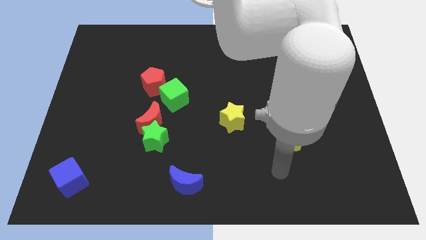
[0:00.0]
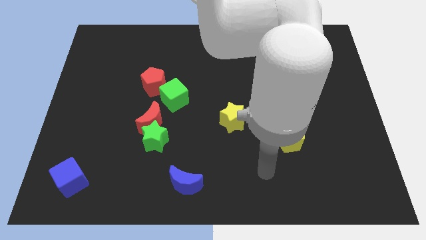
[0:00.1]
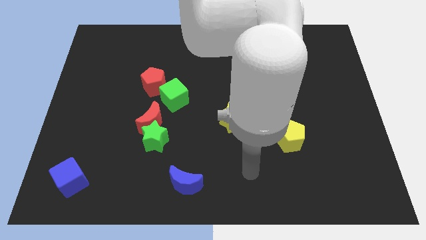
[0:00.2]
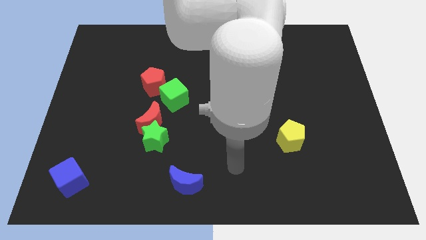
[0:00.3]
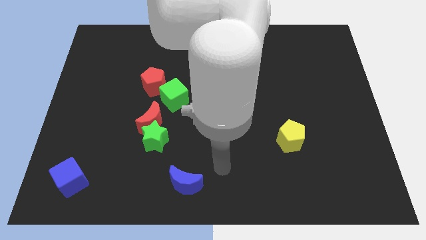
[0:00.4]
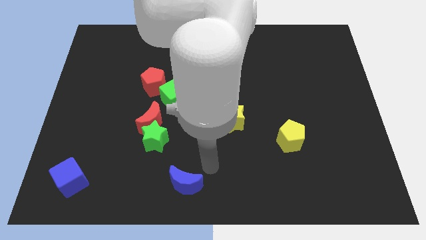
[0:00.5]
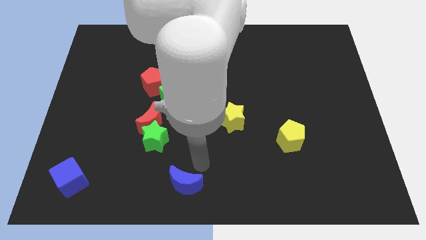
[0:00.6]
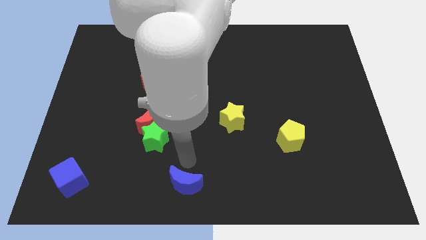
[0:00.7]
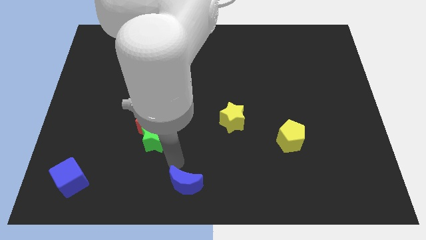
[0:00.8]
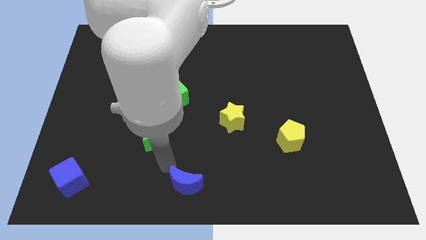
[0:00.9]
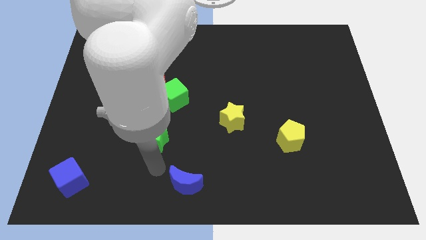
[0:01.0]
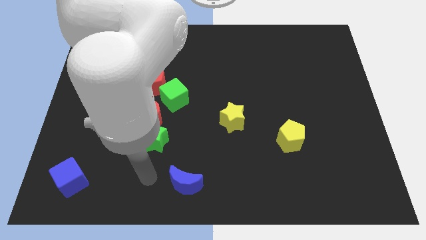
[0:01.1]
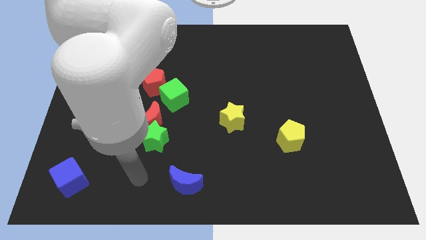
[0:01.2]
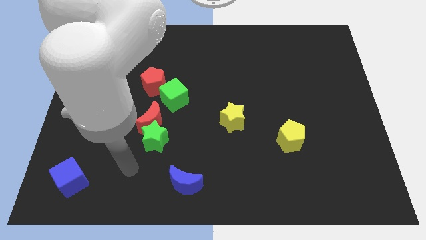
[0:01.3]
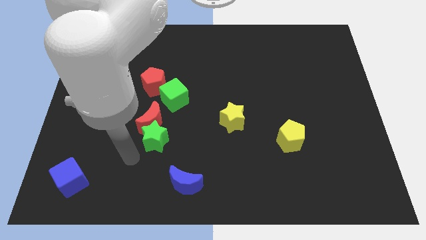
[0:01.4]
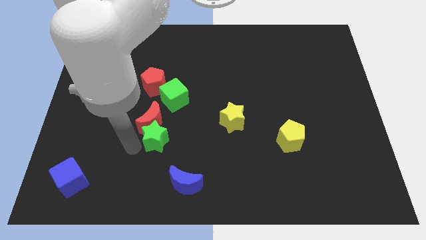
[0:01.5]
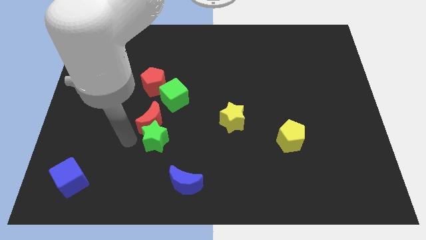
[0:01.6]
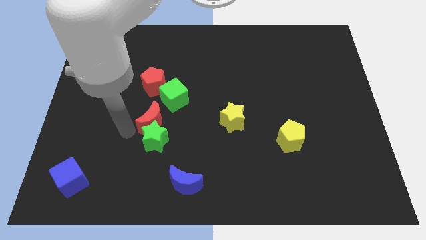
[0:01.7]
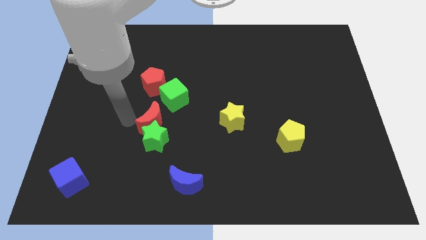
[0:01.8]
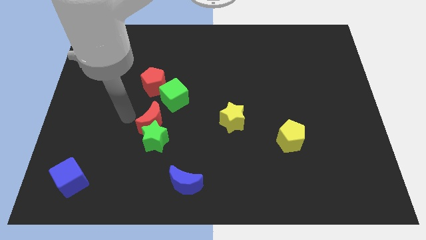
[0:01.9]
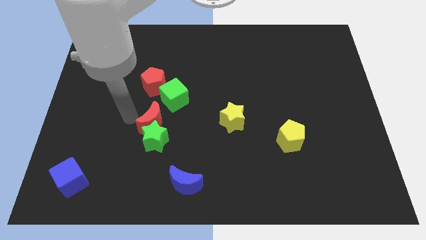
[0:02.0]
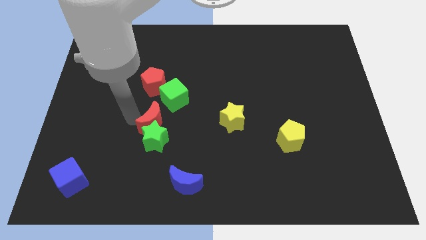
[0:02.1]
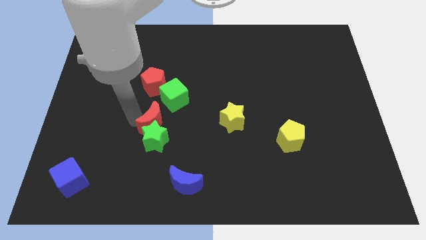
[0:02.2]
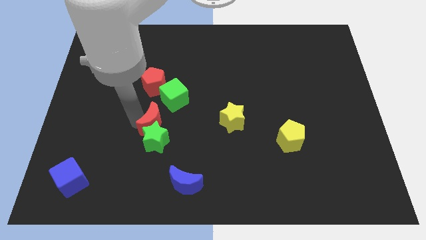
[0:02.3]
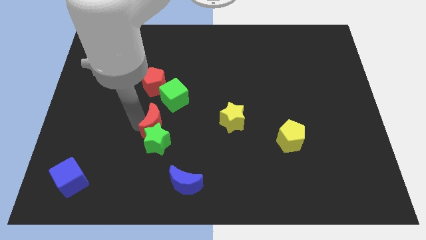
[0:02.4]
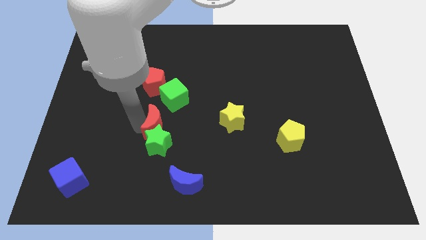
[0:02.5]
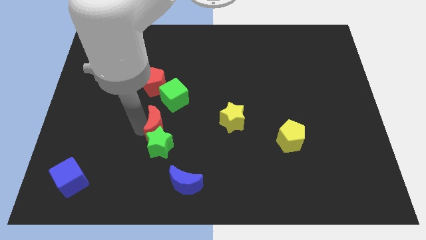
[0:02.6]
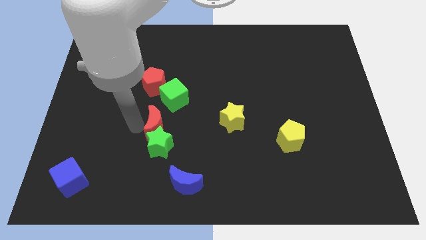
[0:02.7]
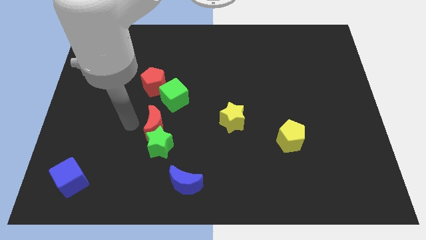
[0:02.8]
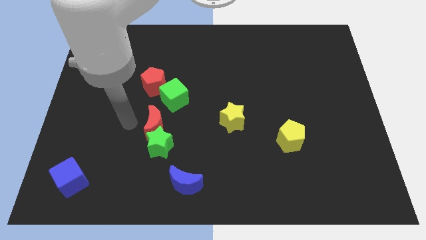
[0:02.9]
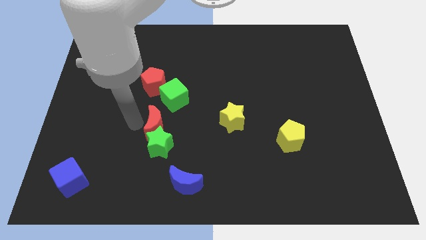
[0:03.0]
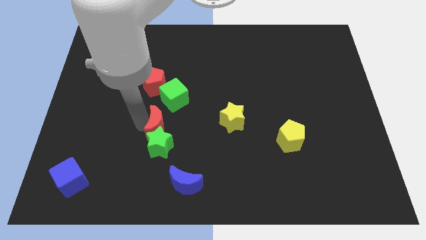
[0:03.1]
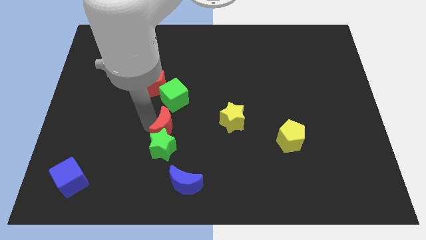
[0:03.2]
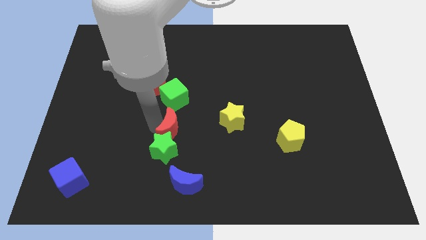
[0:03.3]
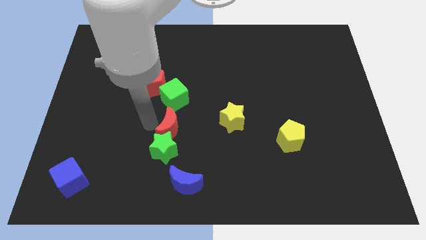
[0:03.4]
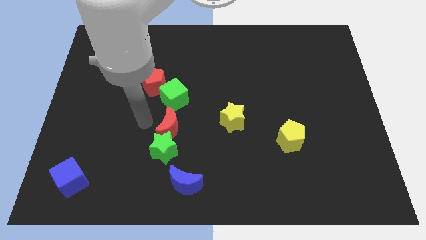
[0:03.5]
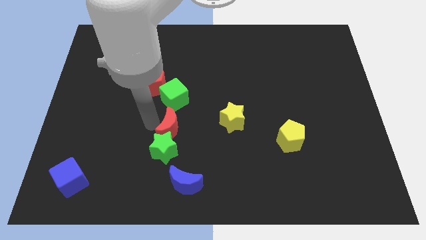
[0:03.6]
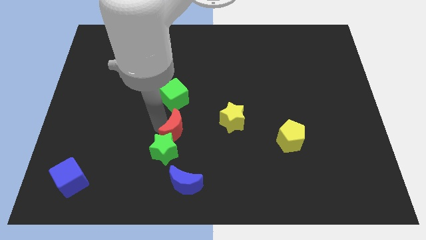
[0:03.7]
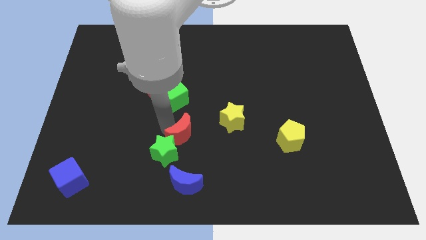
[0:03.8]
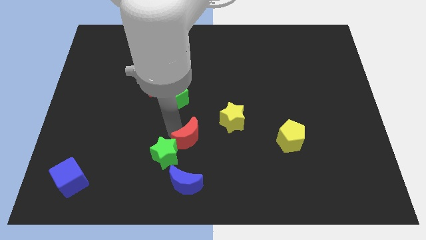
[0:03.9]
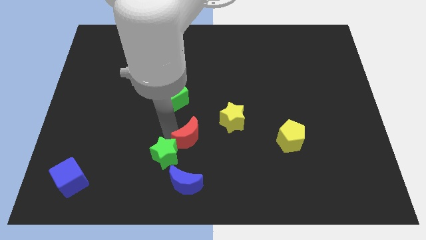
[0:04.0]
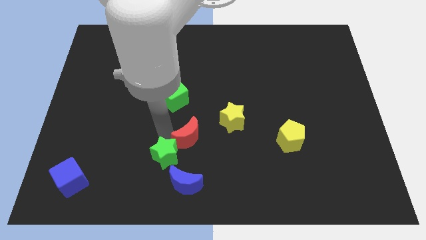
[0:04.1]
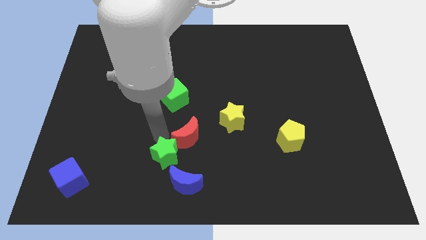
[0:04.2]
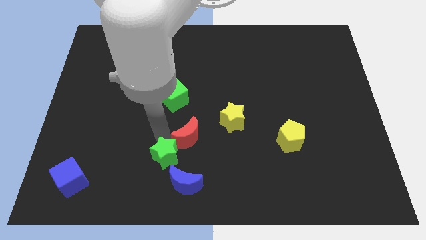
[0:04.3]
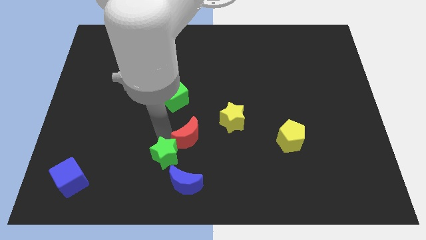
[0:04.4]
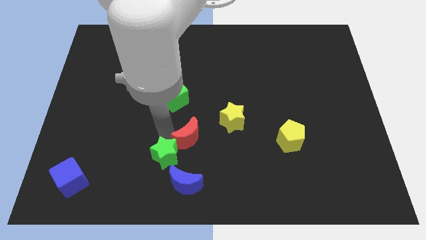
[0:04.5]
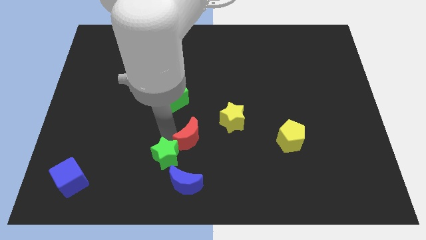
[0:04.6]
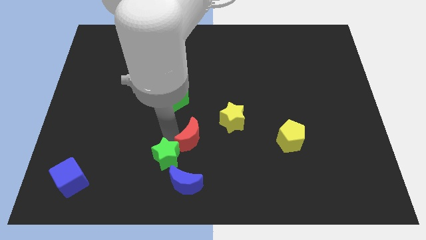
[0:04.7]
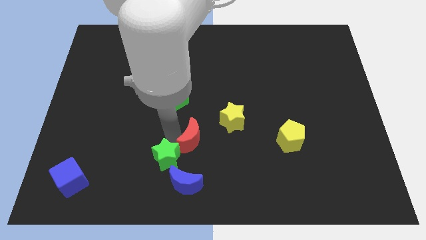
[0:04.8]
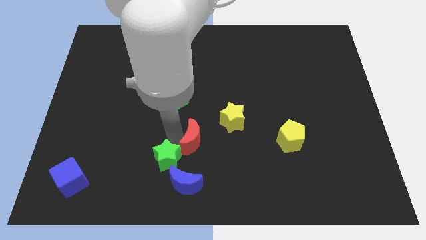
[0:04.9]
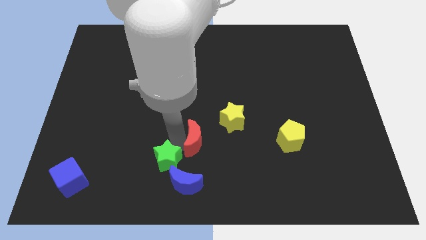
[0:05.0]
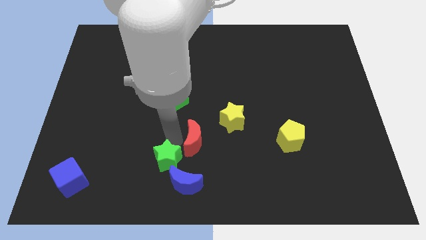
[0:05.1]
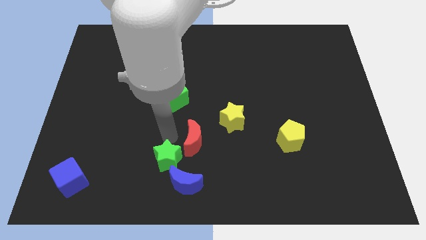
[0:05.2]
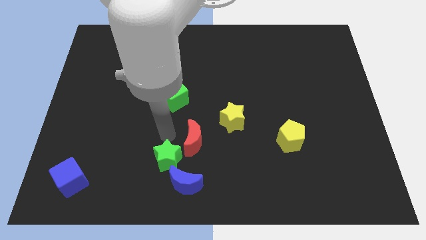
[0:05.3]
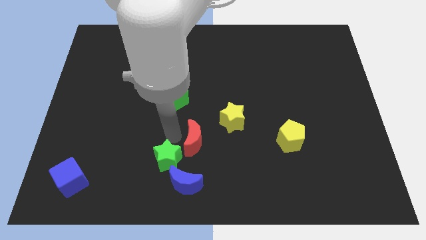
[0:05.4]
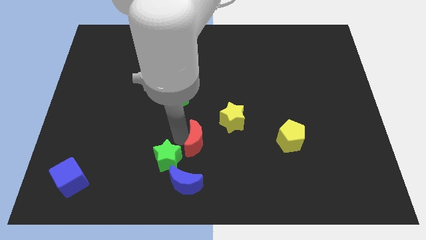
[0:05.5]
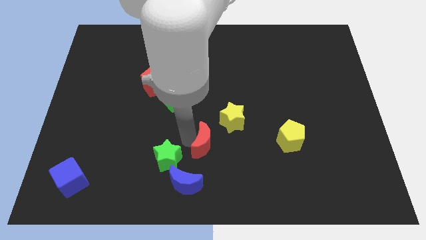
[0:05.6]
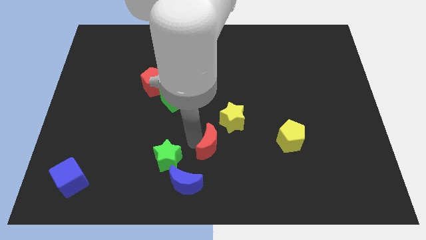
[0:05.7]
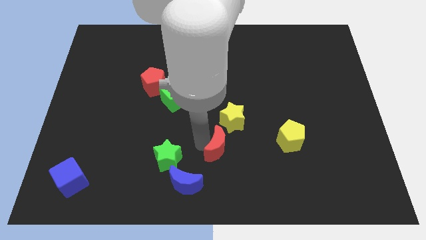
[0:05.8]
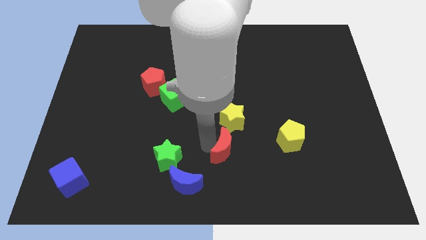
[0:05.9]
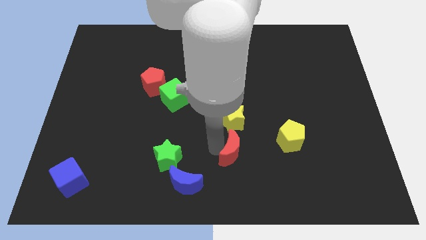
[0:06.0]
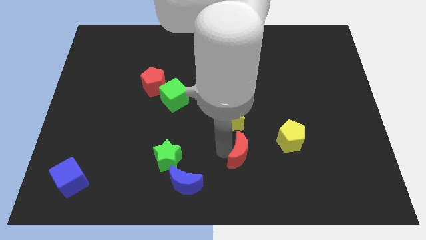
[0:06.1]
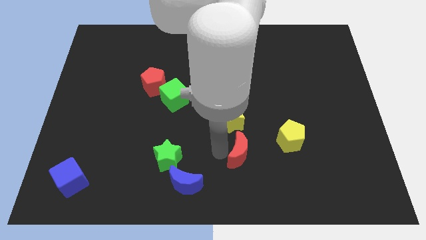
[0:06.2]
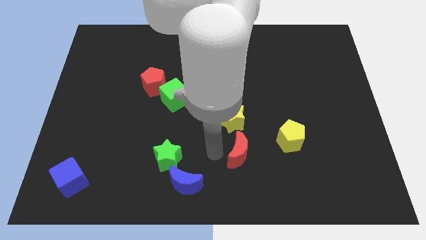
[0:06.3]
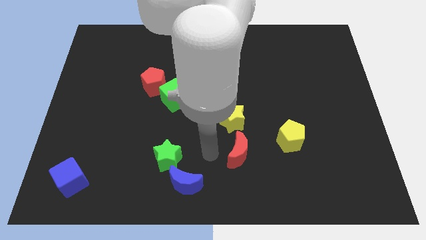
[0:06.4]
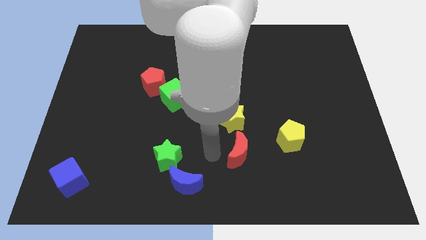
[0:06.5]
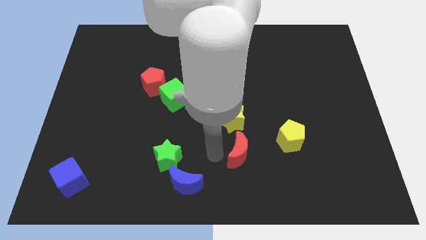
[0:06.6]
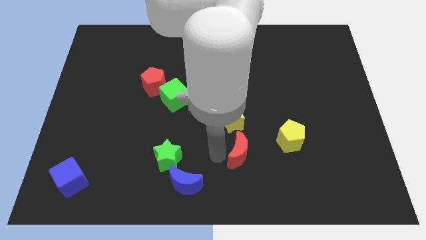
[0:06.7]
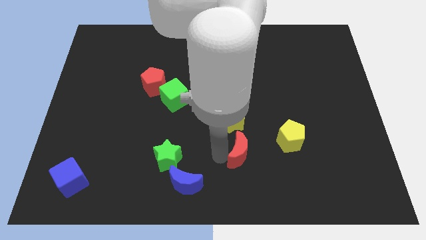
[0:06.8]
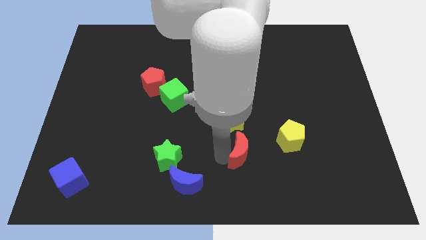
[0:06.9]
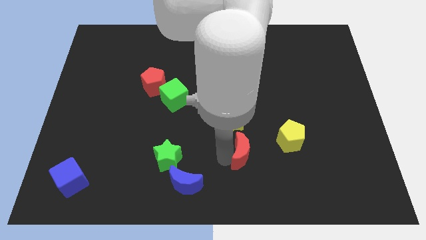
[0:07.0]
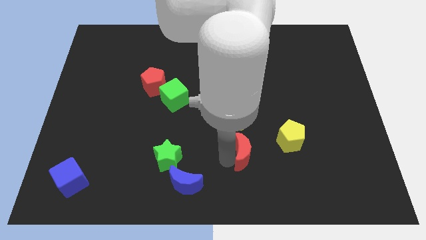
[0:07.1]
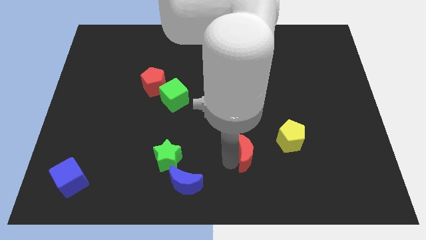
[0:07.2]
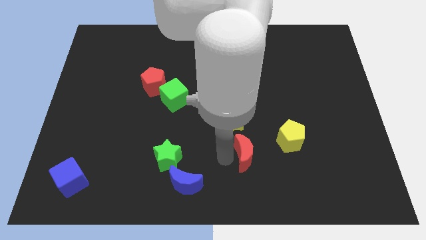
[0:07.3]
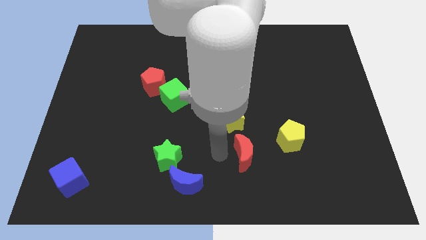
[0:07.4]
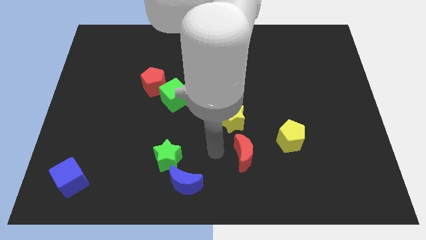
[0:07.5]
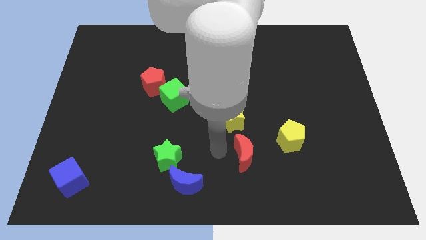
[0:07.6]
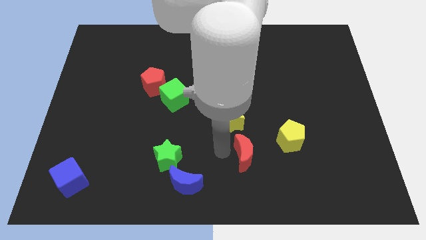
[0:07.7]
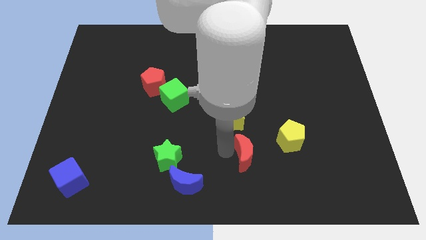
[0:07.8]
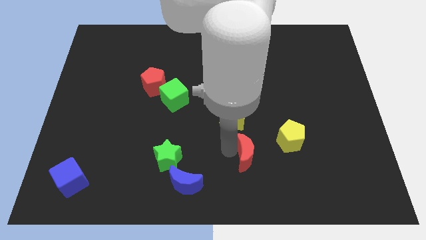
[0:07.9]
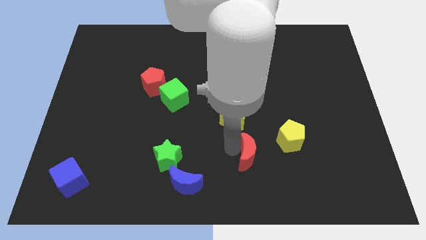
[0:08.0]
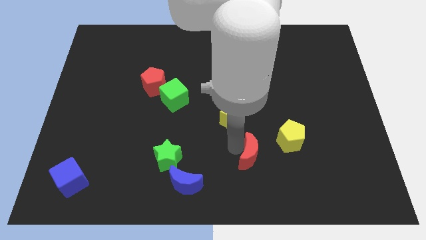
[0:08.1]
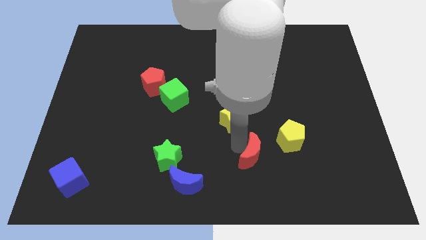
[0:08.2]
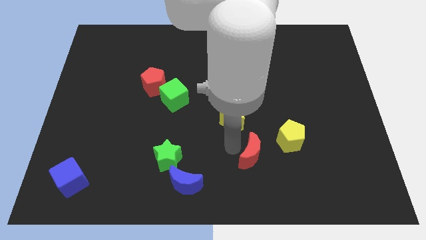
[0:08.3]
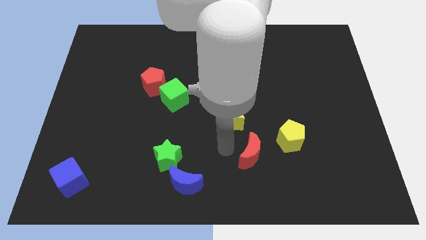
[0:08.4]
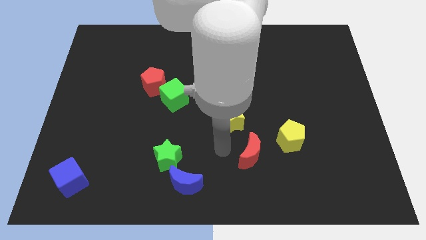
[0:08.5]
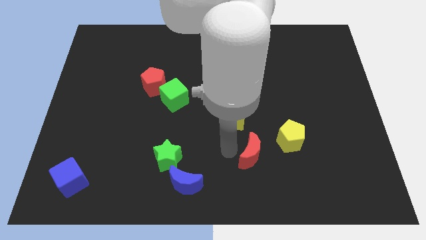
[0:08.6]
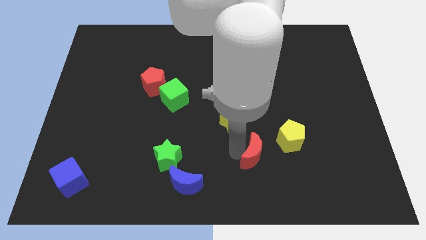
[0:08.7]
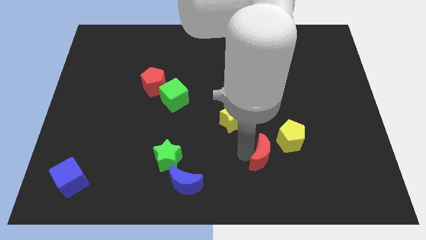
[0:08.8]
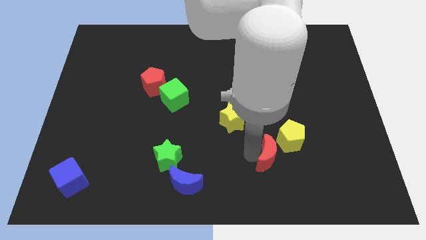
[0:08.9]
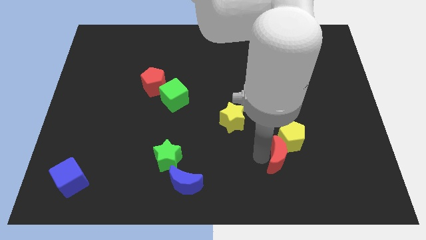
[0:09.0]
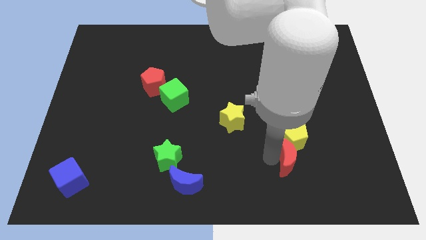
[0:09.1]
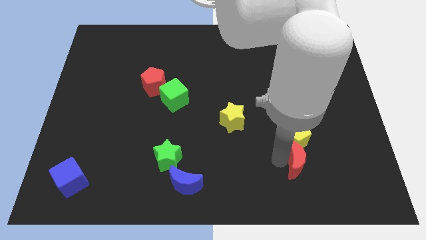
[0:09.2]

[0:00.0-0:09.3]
push the red moon diagonally down and to the right of the yellow pentagon
